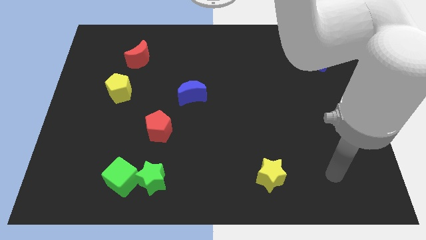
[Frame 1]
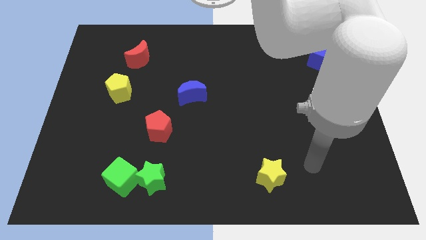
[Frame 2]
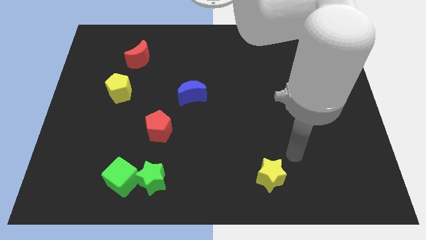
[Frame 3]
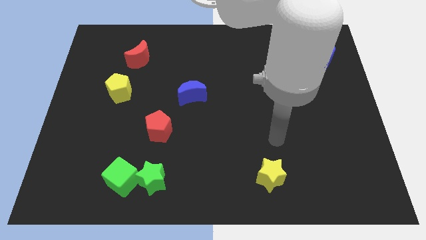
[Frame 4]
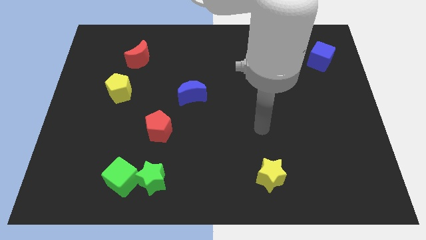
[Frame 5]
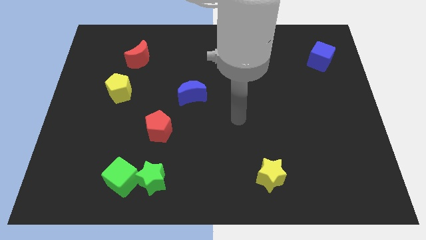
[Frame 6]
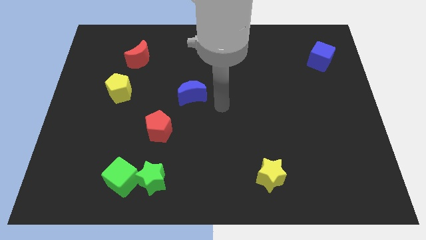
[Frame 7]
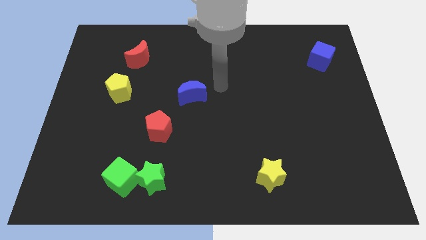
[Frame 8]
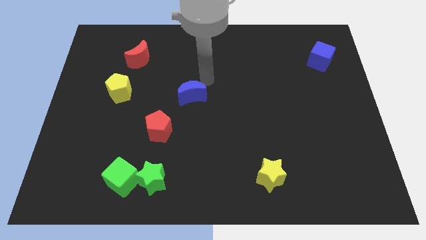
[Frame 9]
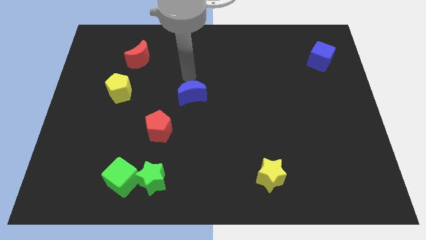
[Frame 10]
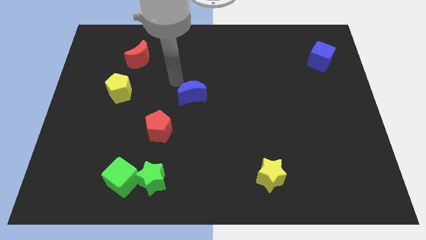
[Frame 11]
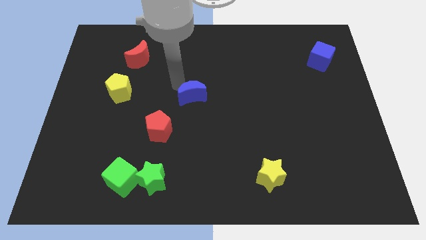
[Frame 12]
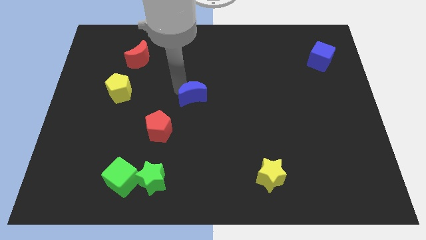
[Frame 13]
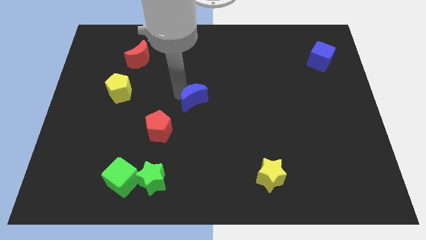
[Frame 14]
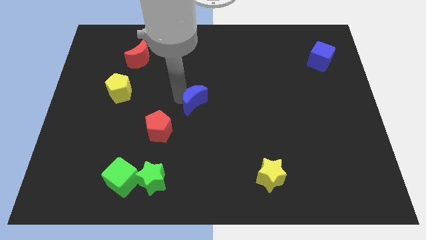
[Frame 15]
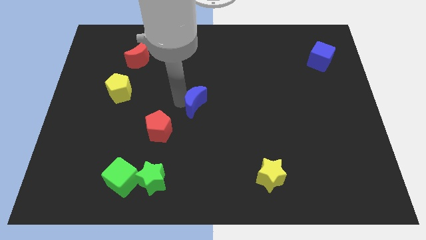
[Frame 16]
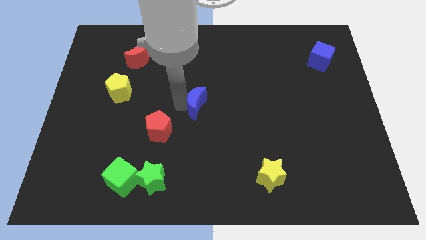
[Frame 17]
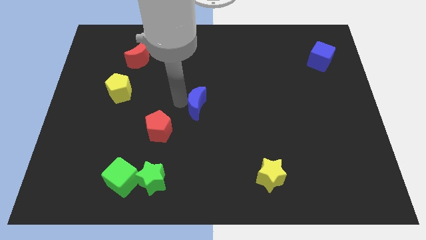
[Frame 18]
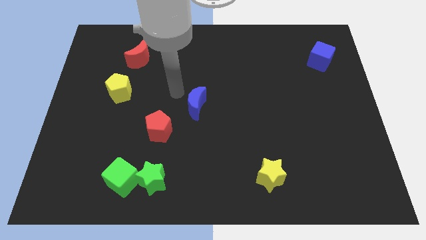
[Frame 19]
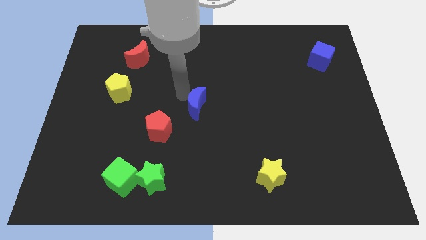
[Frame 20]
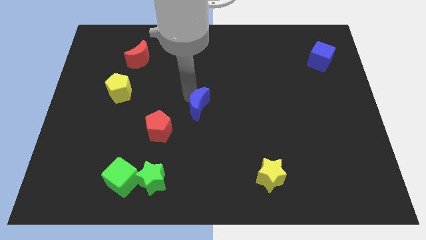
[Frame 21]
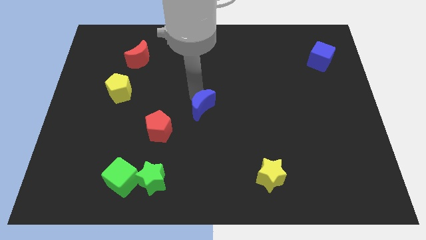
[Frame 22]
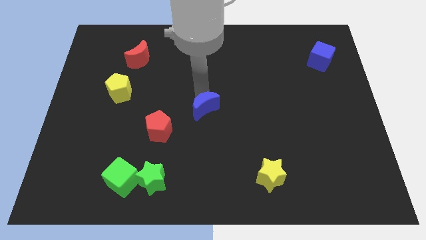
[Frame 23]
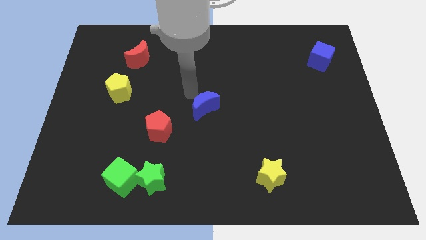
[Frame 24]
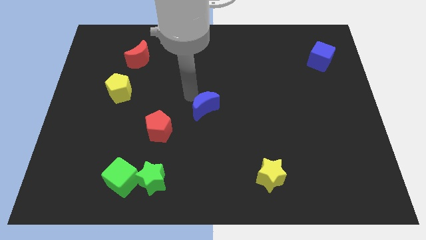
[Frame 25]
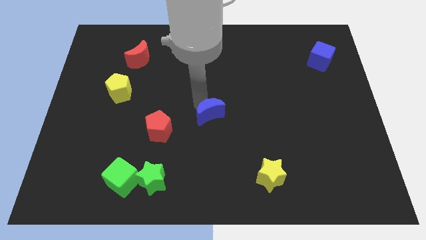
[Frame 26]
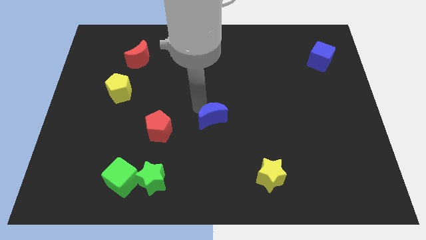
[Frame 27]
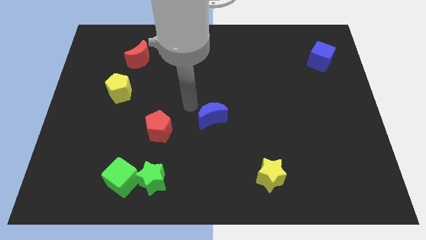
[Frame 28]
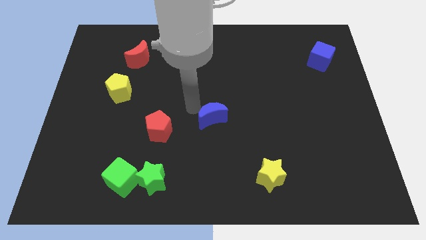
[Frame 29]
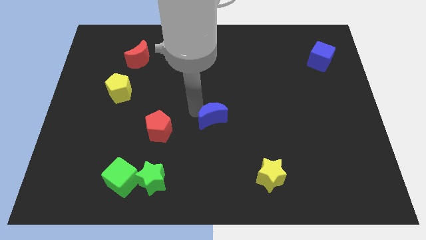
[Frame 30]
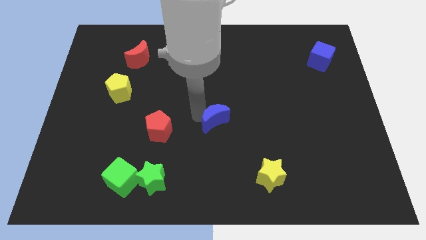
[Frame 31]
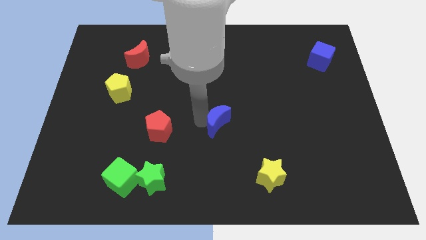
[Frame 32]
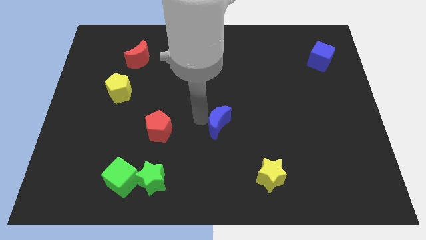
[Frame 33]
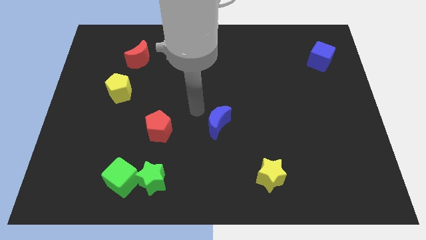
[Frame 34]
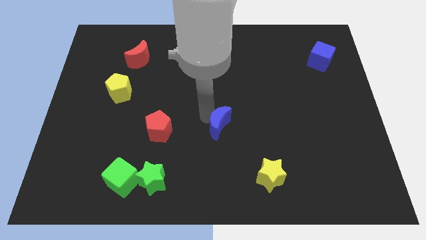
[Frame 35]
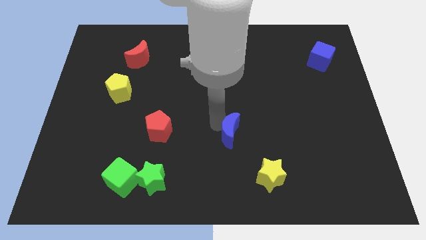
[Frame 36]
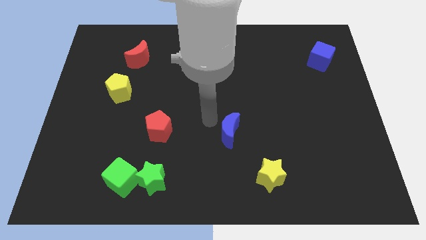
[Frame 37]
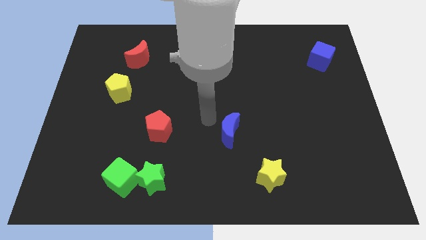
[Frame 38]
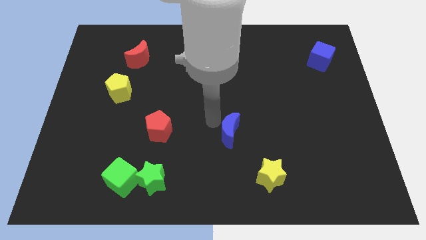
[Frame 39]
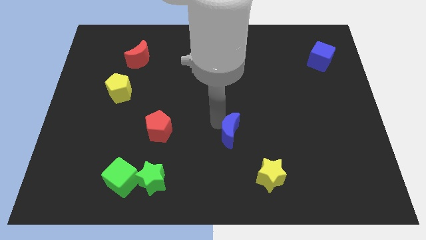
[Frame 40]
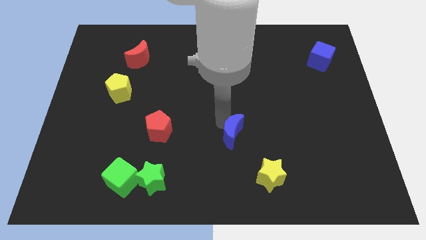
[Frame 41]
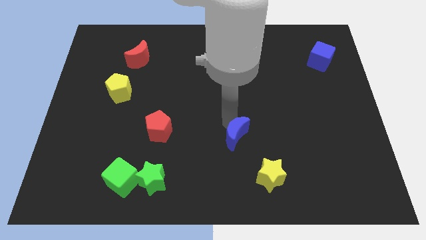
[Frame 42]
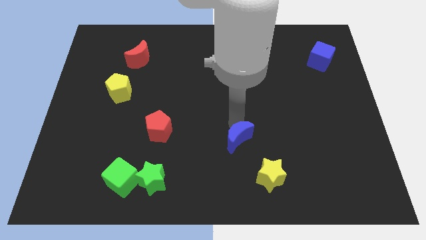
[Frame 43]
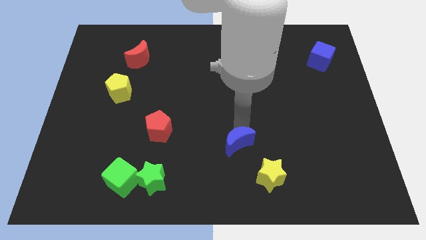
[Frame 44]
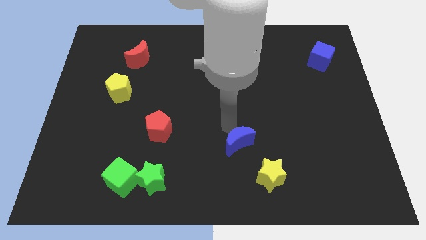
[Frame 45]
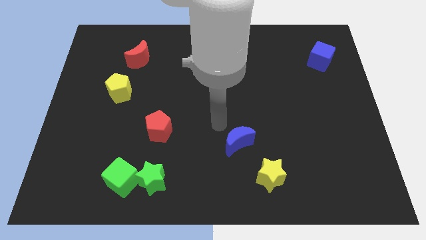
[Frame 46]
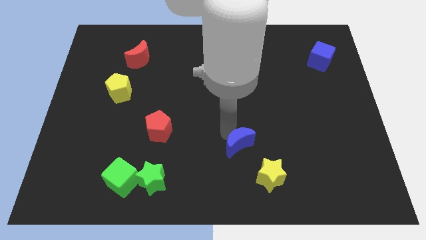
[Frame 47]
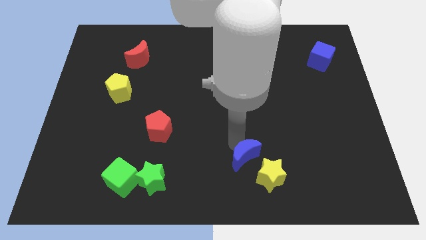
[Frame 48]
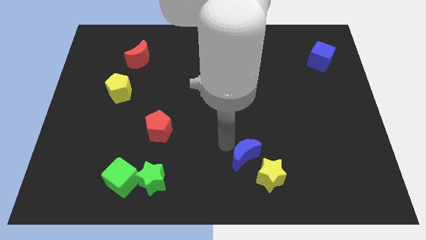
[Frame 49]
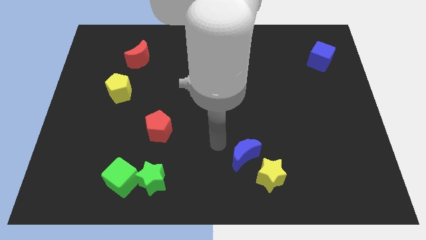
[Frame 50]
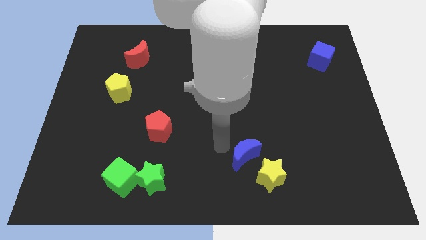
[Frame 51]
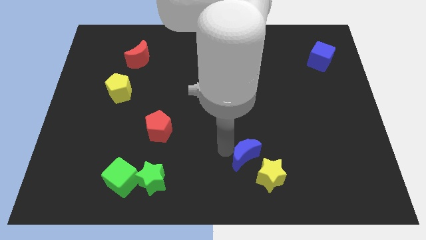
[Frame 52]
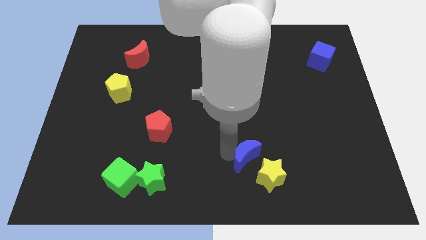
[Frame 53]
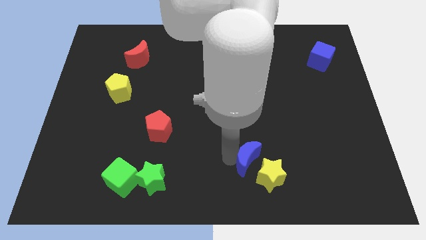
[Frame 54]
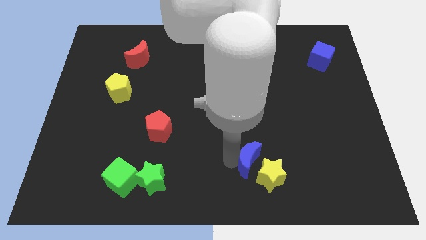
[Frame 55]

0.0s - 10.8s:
put the blue moon towards the yellow star

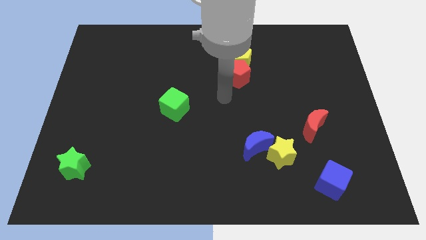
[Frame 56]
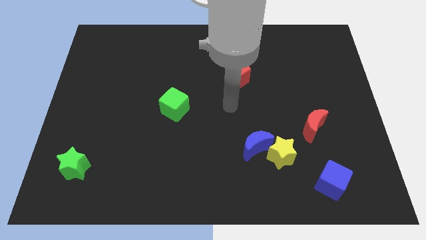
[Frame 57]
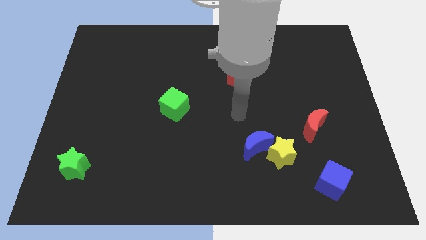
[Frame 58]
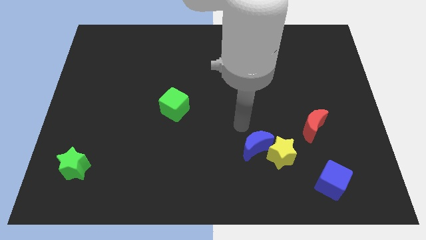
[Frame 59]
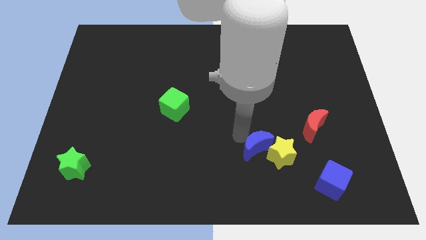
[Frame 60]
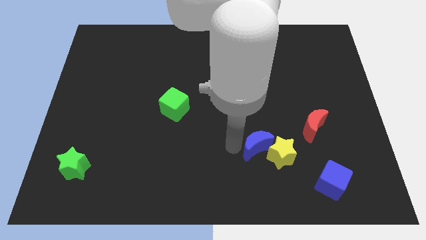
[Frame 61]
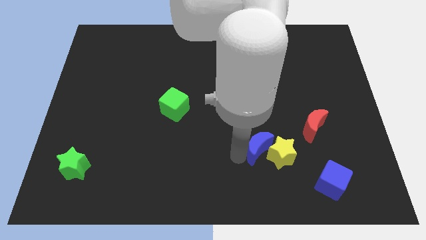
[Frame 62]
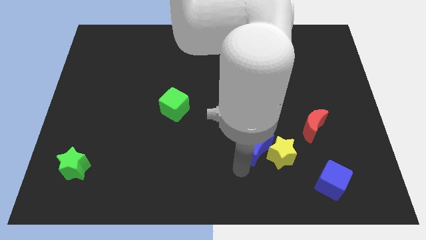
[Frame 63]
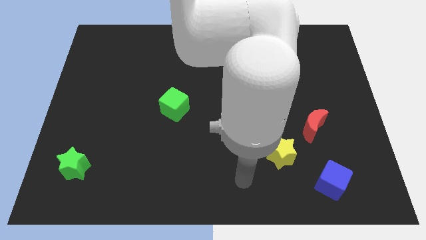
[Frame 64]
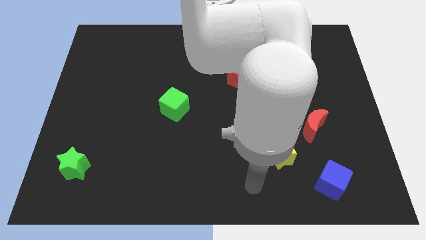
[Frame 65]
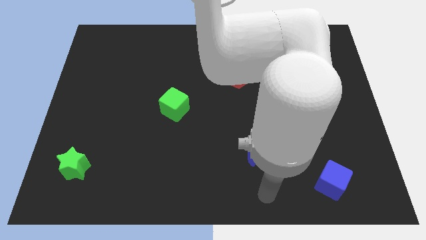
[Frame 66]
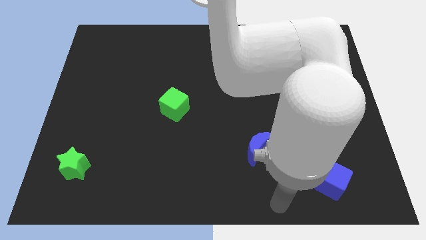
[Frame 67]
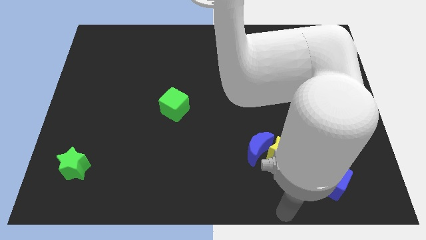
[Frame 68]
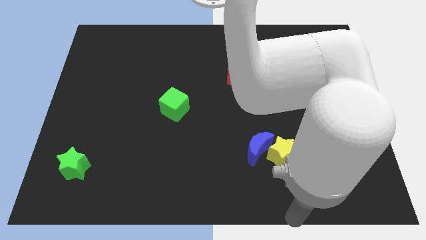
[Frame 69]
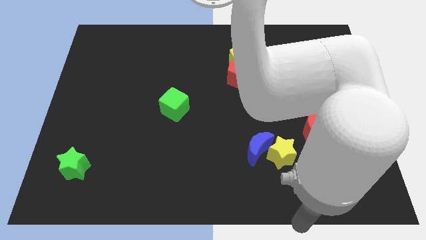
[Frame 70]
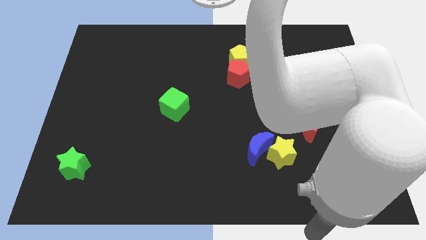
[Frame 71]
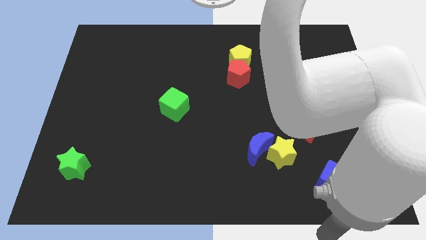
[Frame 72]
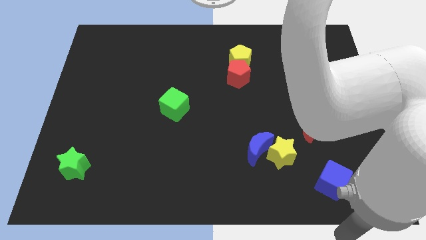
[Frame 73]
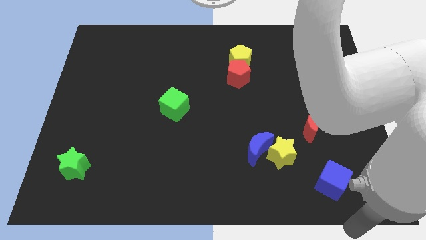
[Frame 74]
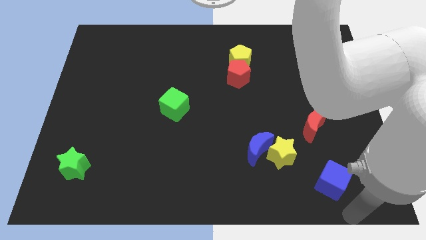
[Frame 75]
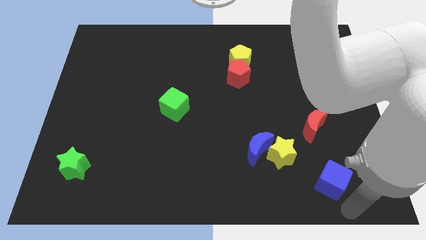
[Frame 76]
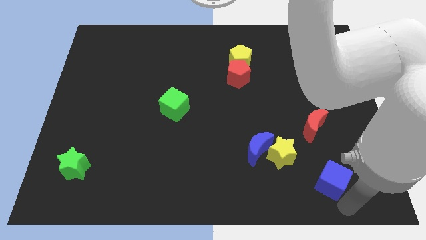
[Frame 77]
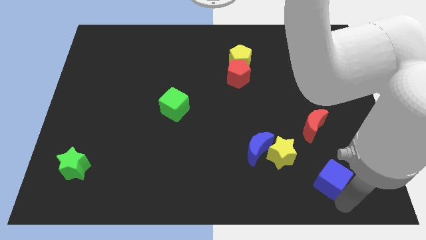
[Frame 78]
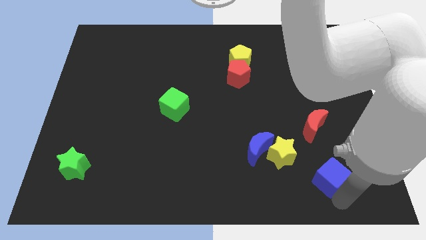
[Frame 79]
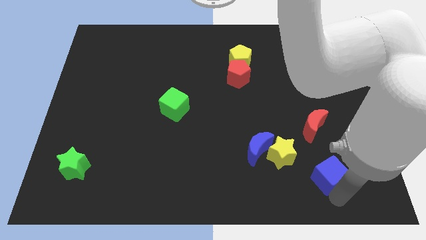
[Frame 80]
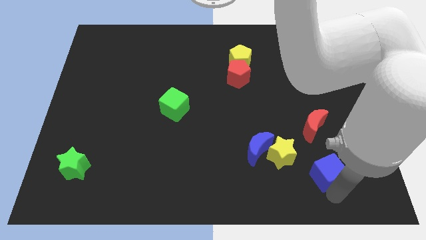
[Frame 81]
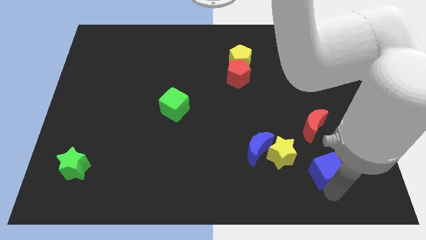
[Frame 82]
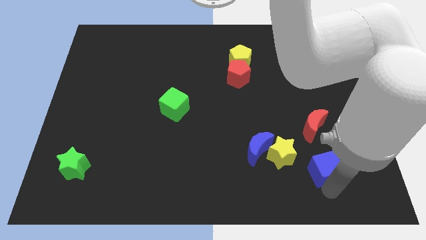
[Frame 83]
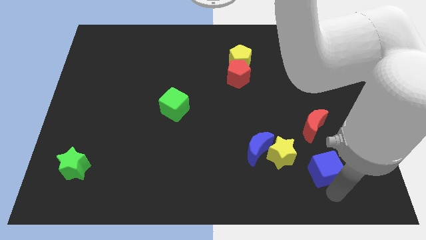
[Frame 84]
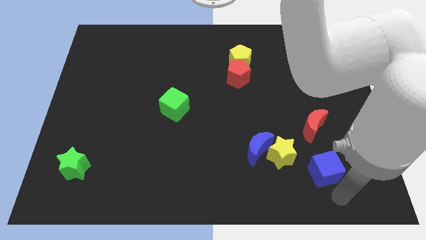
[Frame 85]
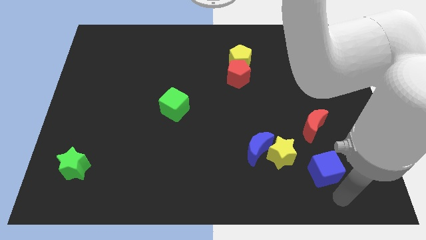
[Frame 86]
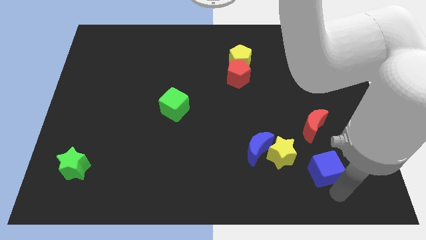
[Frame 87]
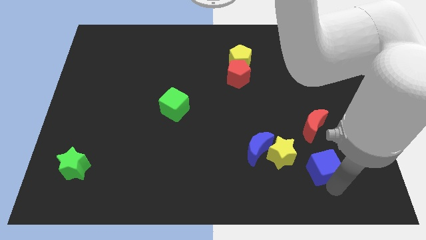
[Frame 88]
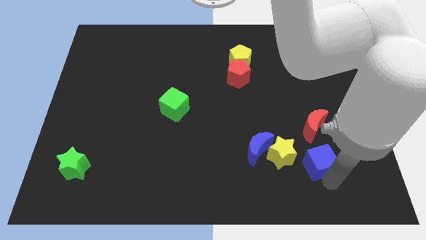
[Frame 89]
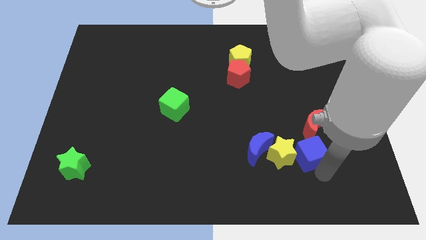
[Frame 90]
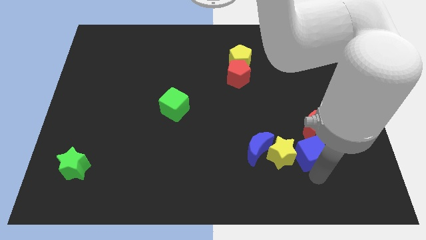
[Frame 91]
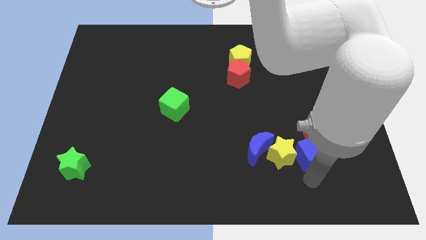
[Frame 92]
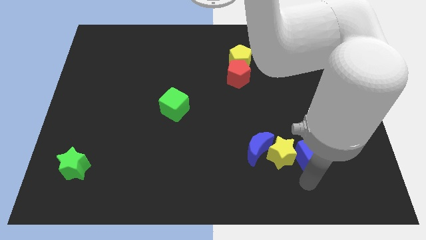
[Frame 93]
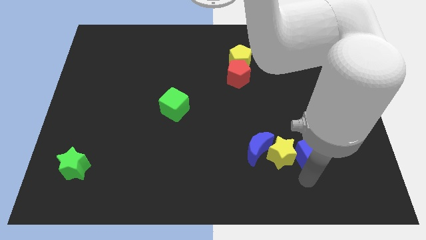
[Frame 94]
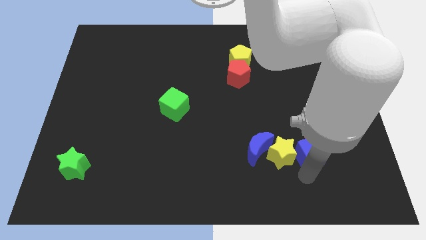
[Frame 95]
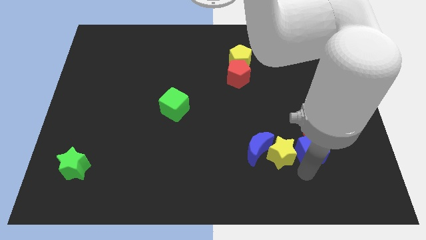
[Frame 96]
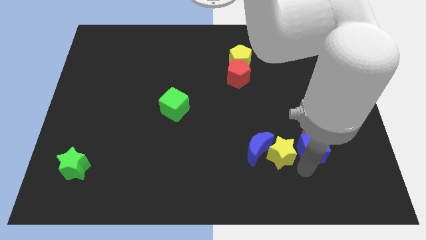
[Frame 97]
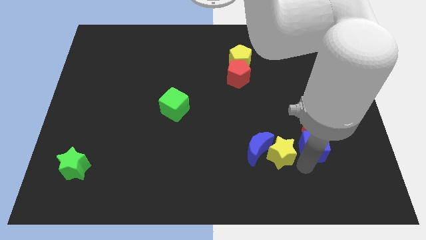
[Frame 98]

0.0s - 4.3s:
push the blue cube close to the red moon
